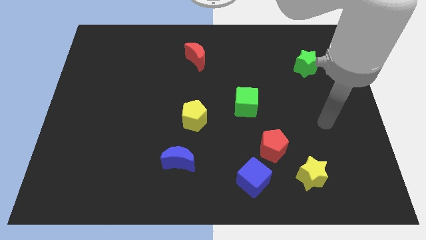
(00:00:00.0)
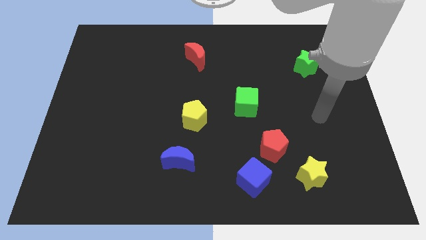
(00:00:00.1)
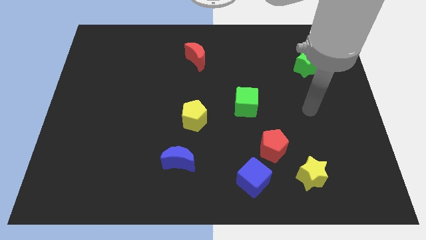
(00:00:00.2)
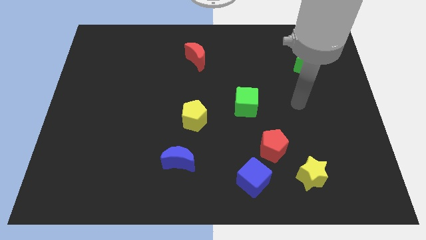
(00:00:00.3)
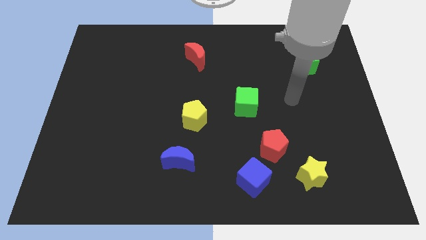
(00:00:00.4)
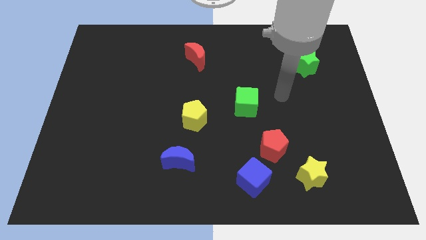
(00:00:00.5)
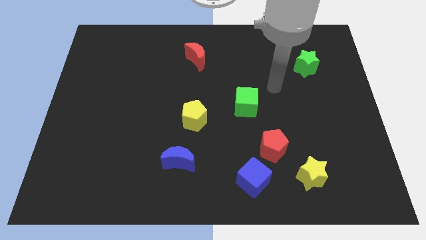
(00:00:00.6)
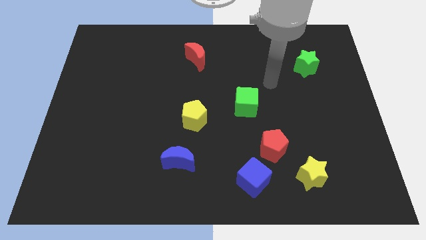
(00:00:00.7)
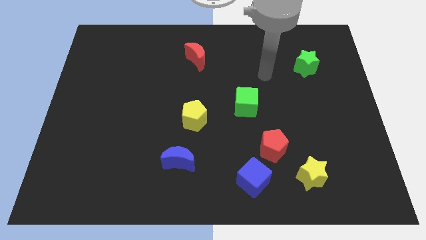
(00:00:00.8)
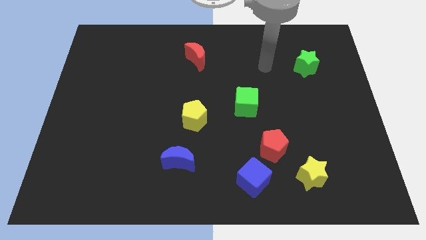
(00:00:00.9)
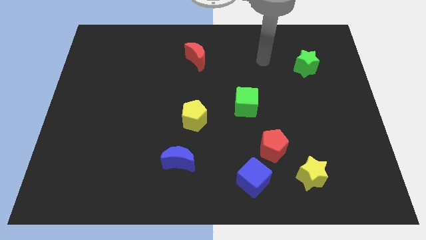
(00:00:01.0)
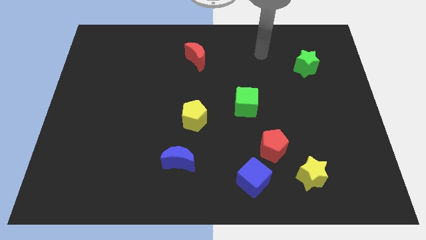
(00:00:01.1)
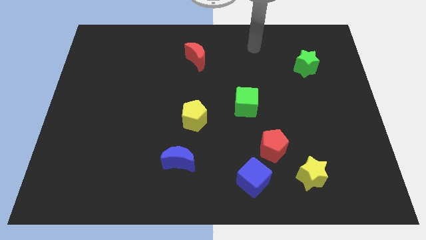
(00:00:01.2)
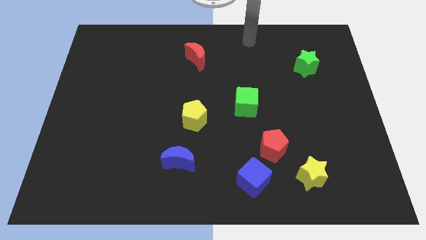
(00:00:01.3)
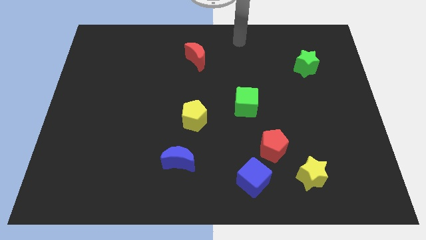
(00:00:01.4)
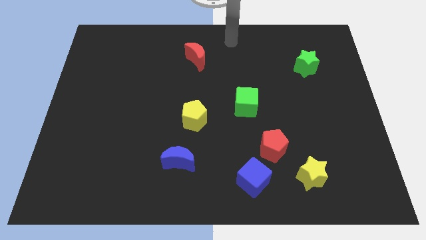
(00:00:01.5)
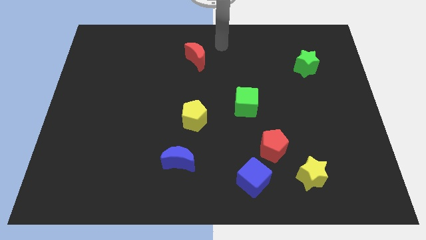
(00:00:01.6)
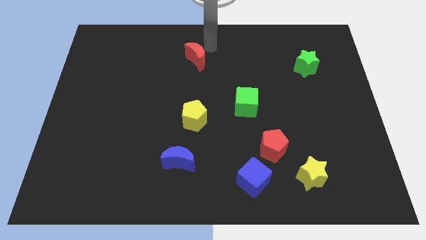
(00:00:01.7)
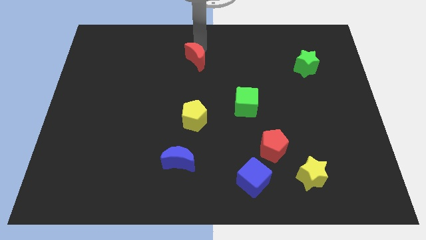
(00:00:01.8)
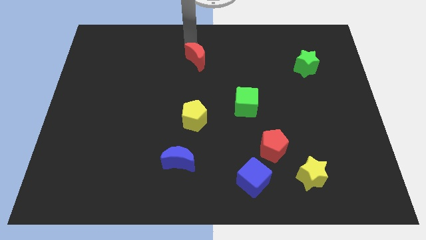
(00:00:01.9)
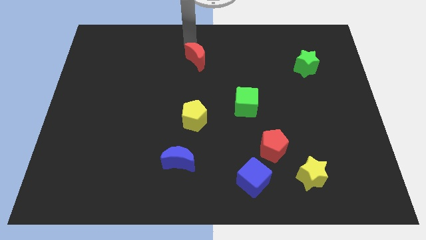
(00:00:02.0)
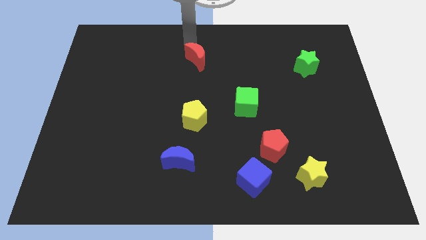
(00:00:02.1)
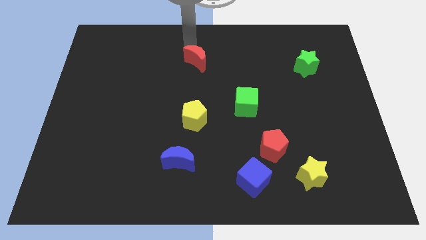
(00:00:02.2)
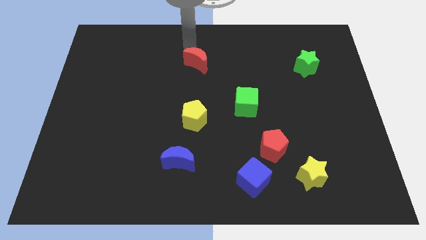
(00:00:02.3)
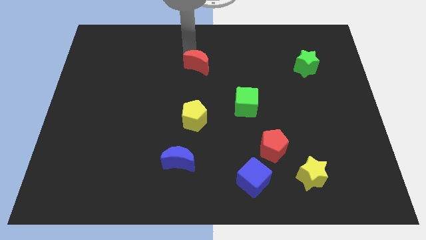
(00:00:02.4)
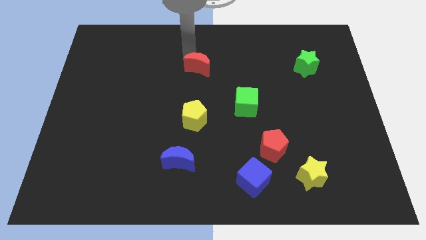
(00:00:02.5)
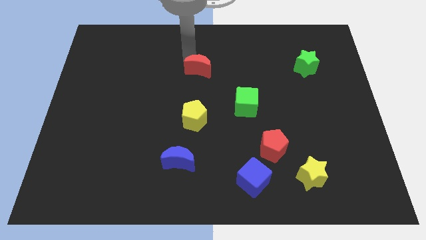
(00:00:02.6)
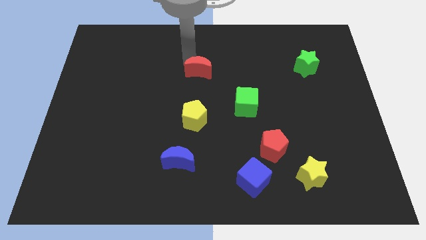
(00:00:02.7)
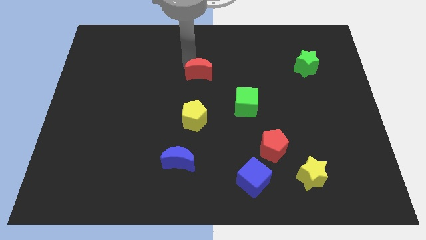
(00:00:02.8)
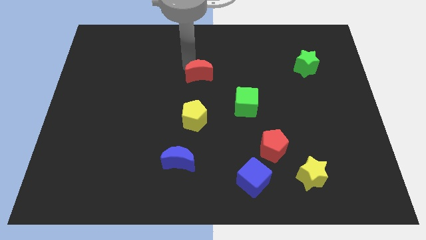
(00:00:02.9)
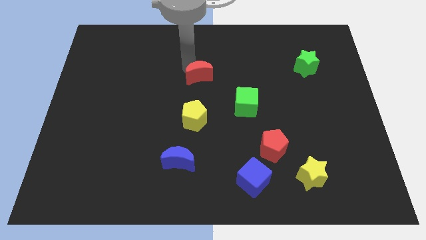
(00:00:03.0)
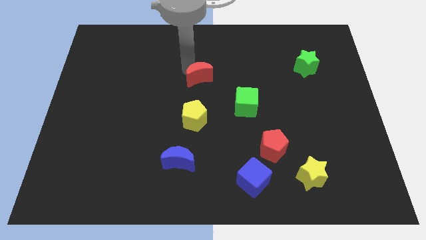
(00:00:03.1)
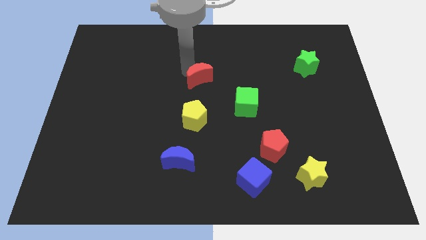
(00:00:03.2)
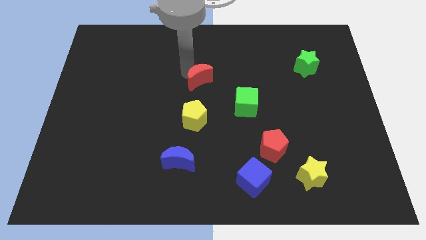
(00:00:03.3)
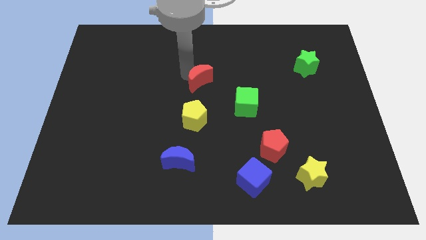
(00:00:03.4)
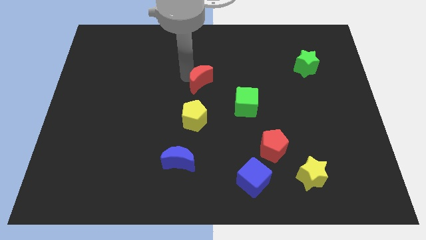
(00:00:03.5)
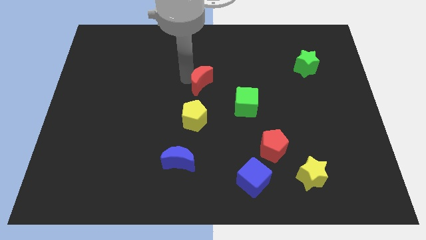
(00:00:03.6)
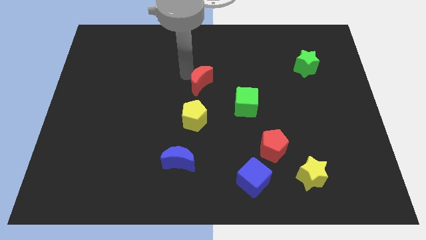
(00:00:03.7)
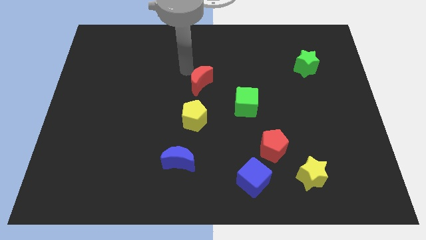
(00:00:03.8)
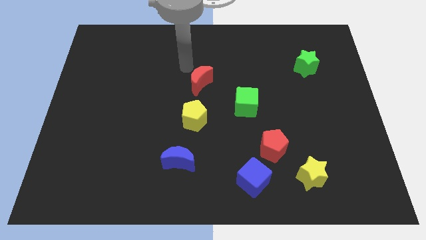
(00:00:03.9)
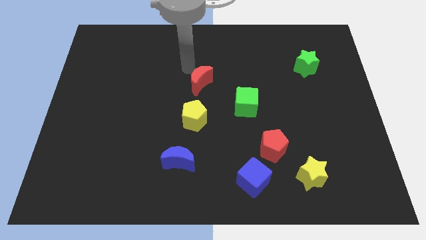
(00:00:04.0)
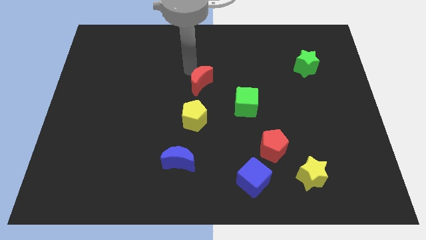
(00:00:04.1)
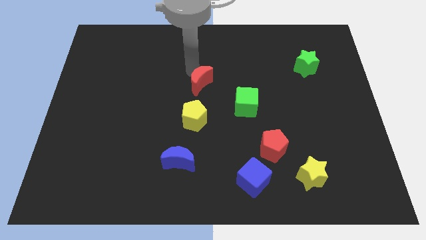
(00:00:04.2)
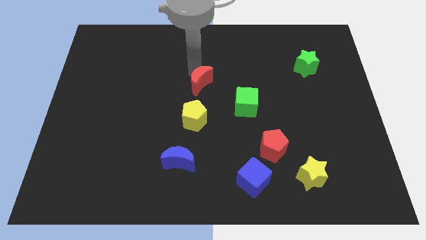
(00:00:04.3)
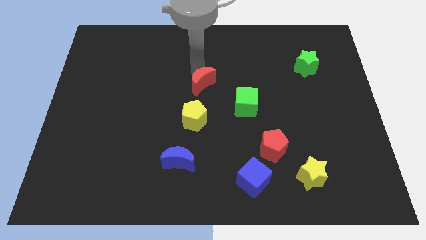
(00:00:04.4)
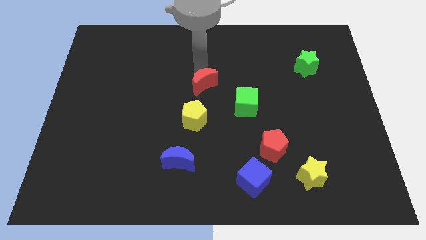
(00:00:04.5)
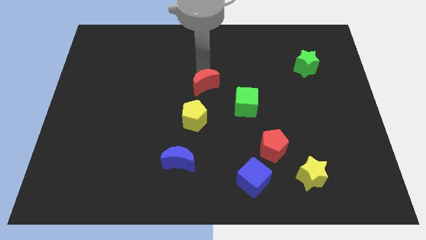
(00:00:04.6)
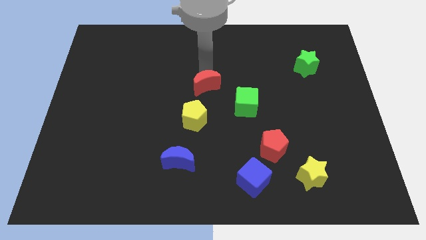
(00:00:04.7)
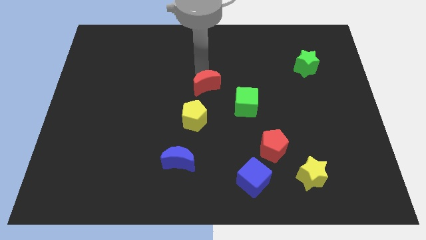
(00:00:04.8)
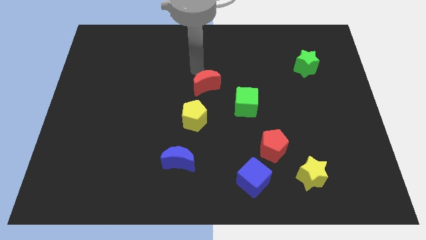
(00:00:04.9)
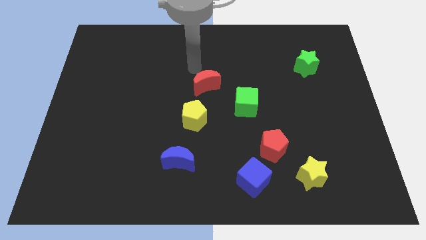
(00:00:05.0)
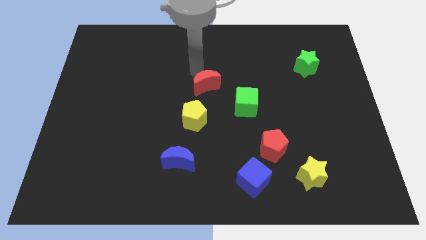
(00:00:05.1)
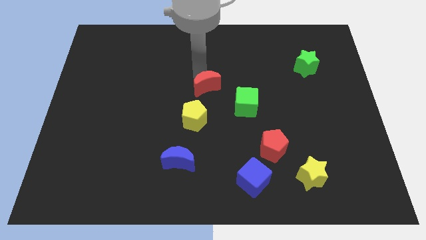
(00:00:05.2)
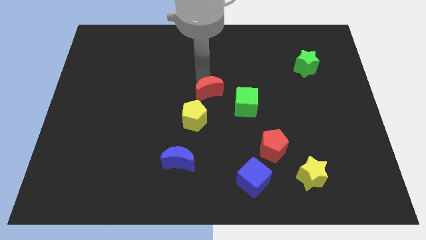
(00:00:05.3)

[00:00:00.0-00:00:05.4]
move the red moon to the top right side of the yellow pentagon

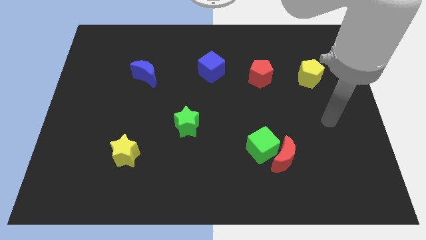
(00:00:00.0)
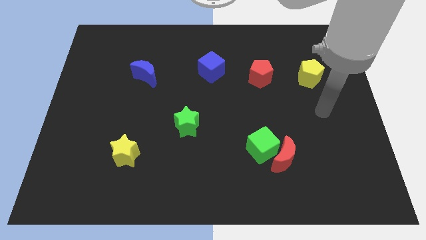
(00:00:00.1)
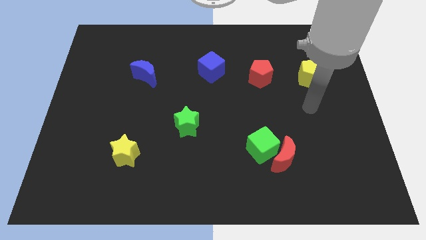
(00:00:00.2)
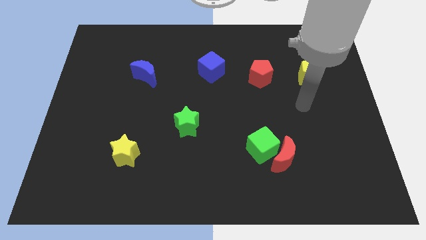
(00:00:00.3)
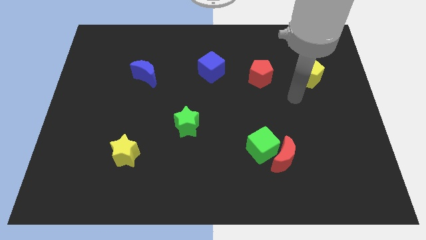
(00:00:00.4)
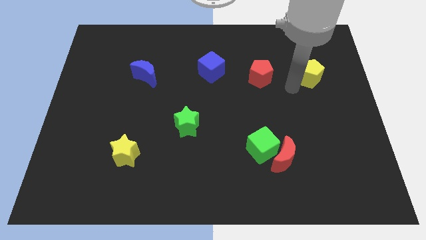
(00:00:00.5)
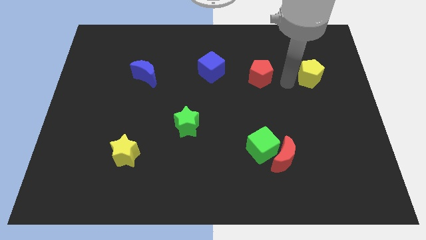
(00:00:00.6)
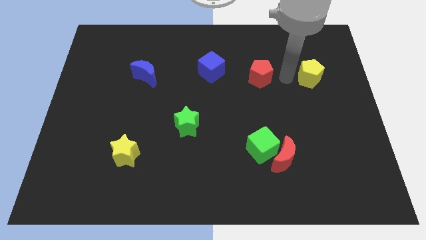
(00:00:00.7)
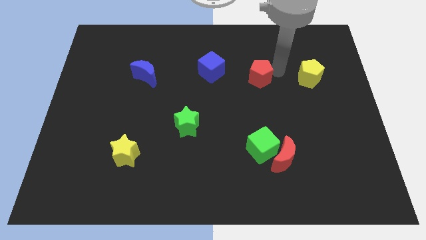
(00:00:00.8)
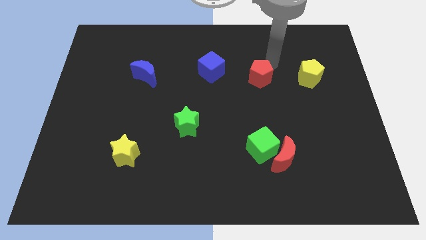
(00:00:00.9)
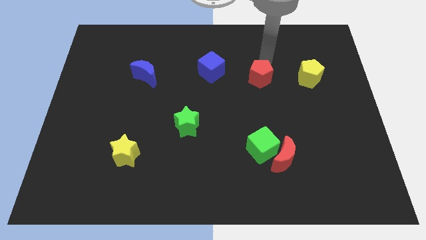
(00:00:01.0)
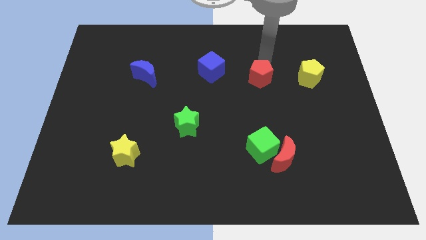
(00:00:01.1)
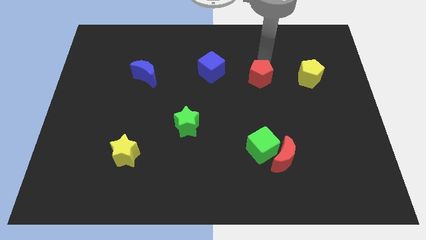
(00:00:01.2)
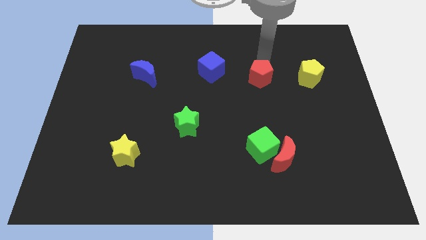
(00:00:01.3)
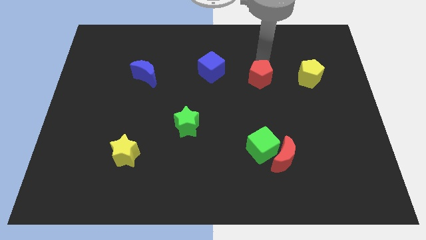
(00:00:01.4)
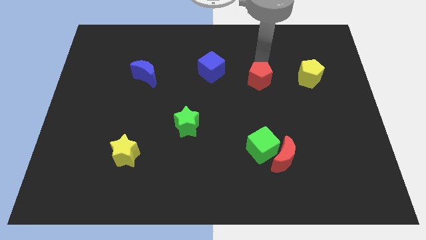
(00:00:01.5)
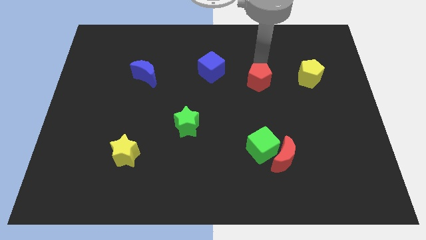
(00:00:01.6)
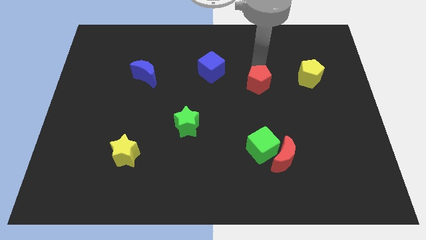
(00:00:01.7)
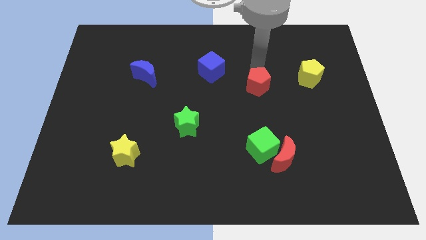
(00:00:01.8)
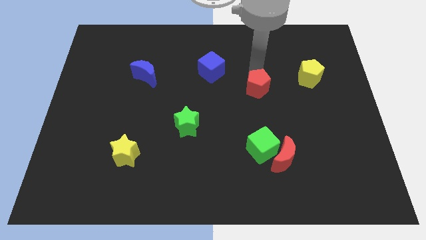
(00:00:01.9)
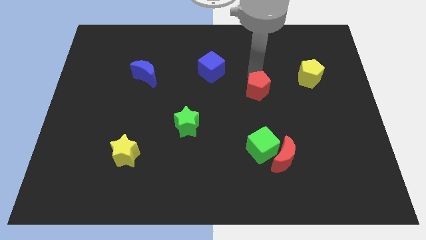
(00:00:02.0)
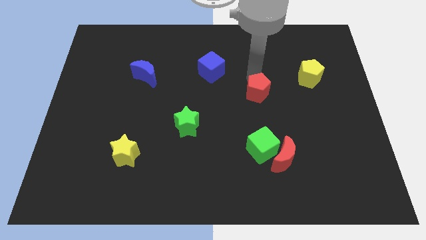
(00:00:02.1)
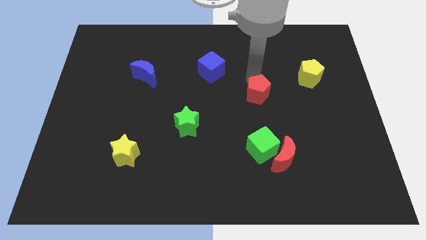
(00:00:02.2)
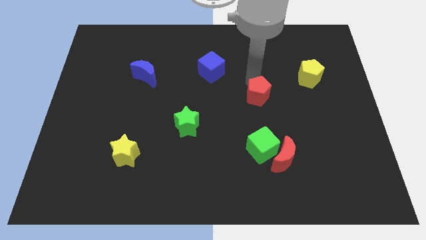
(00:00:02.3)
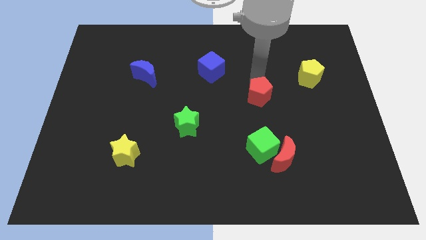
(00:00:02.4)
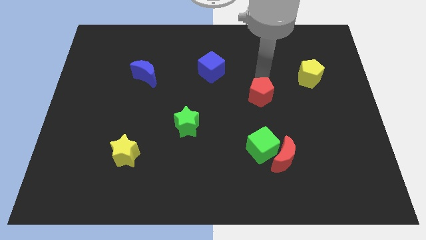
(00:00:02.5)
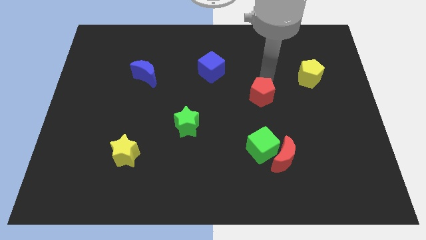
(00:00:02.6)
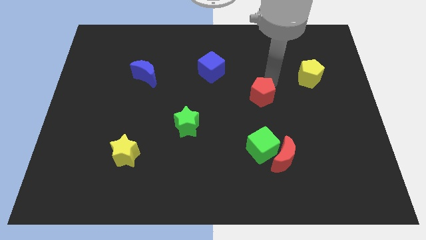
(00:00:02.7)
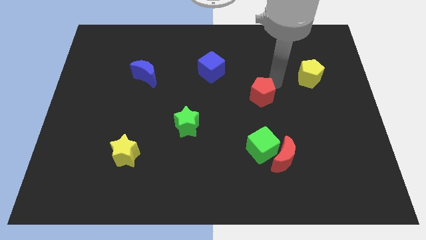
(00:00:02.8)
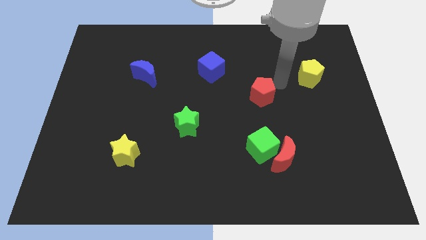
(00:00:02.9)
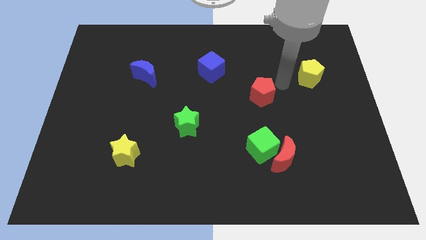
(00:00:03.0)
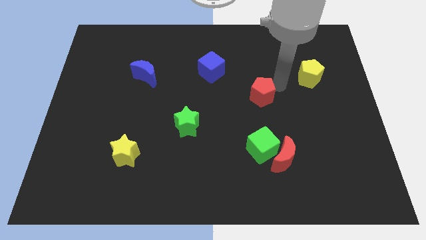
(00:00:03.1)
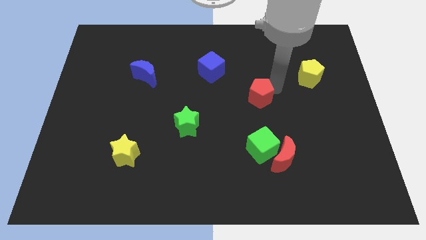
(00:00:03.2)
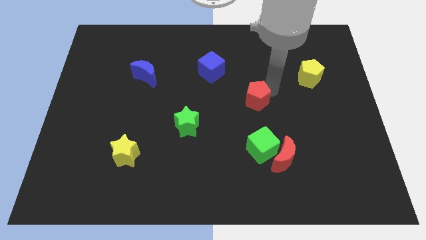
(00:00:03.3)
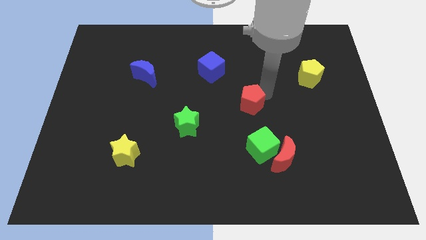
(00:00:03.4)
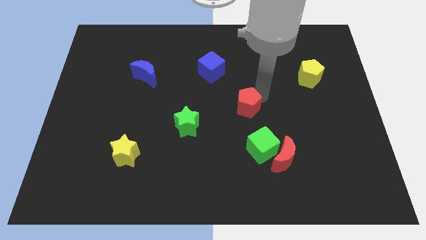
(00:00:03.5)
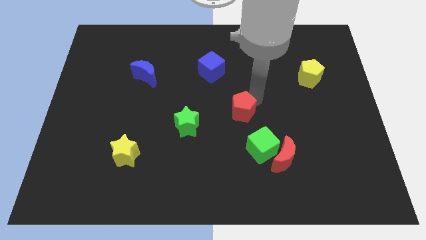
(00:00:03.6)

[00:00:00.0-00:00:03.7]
put the red pentagon diagonally up and to the left of the green cube
